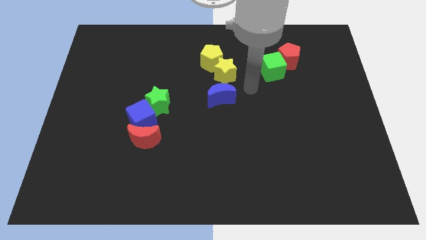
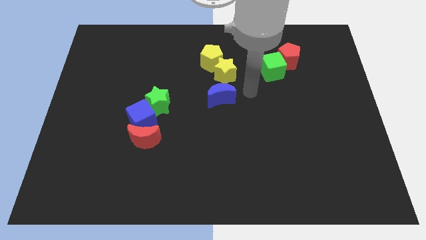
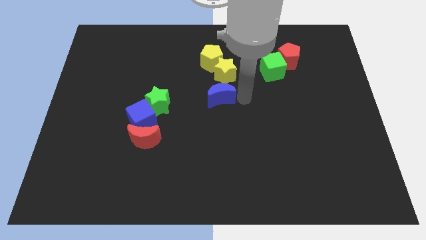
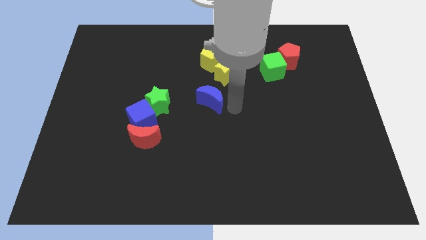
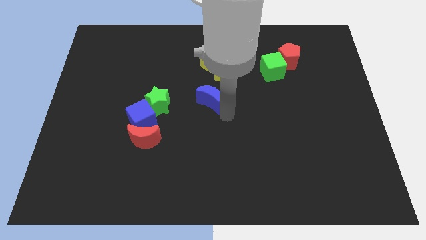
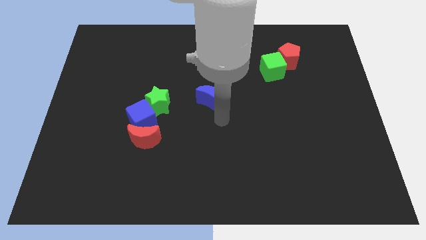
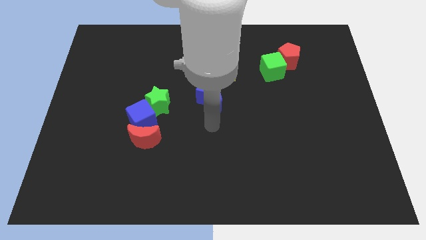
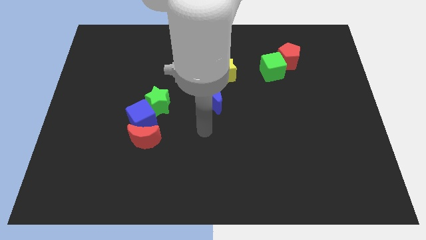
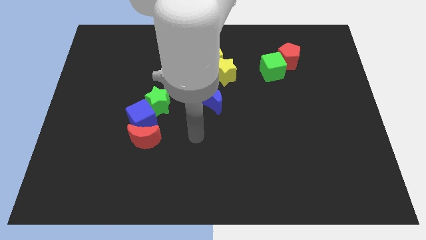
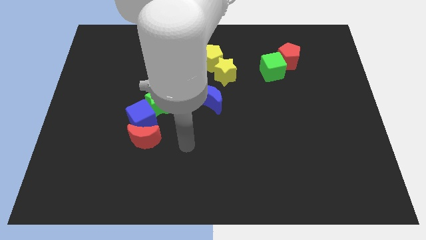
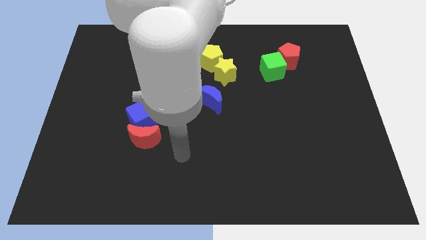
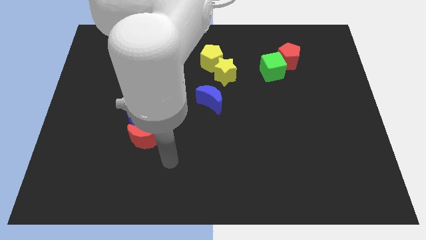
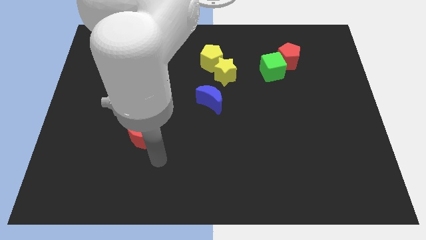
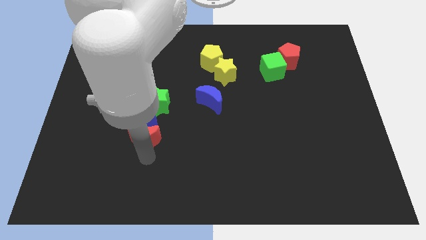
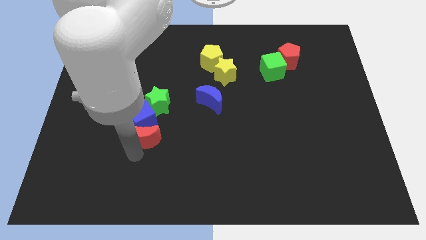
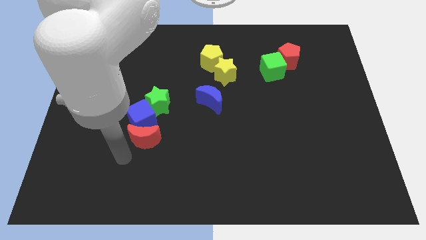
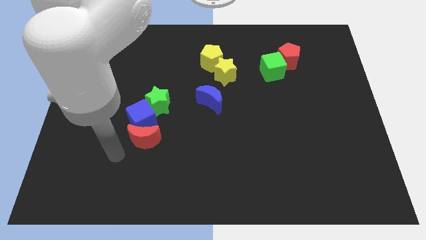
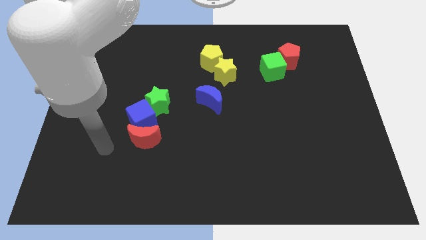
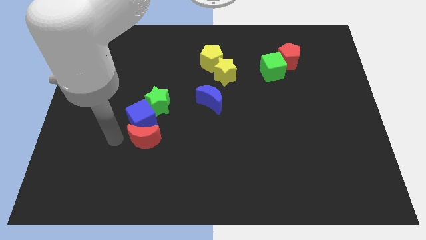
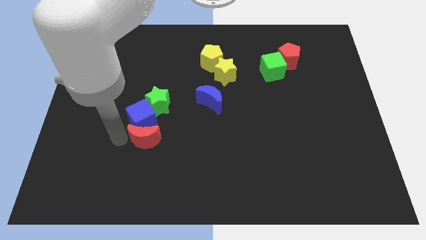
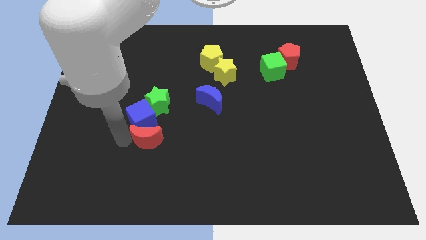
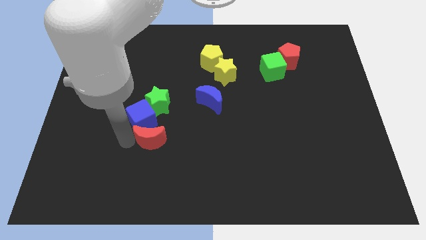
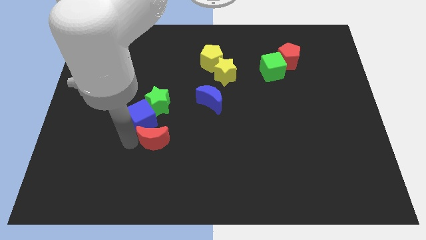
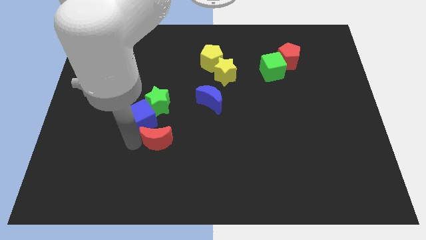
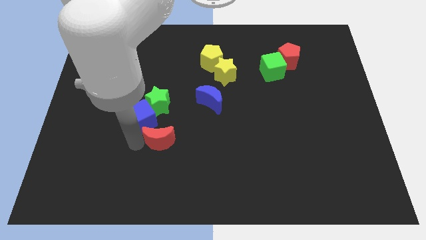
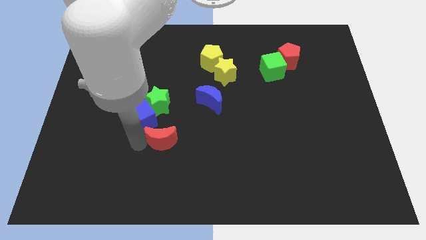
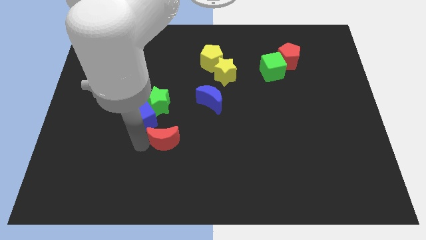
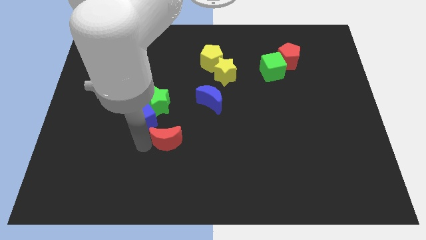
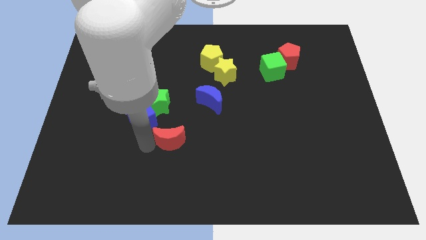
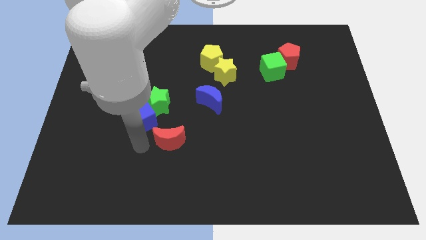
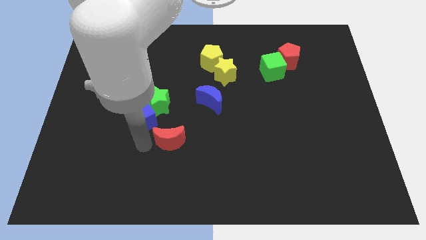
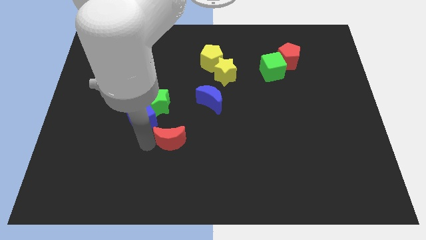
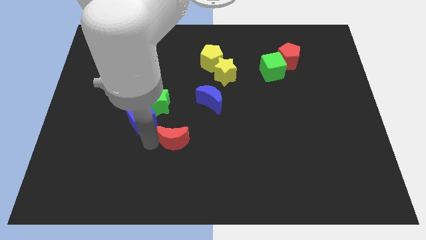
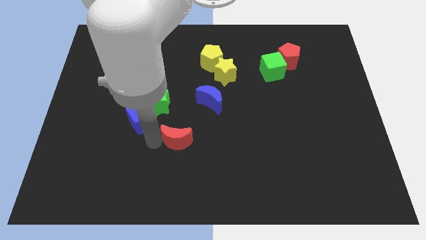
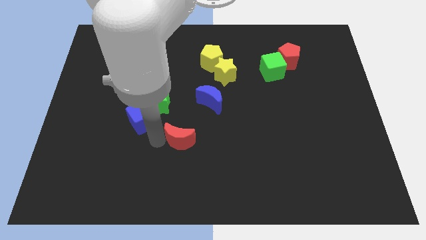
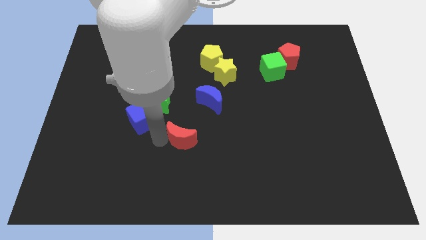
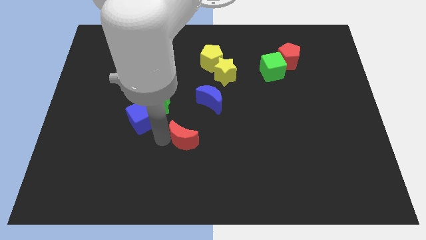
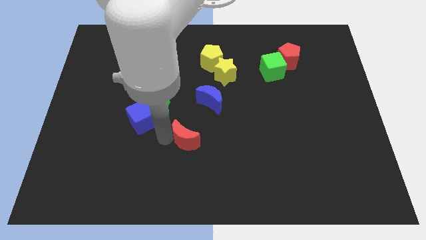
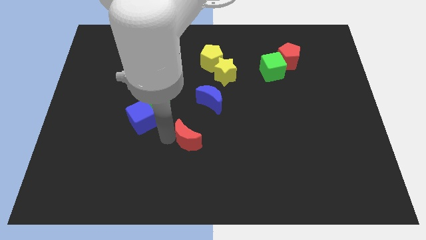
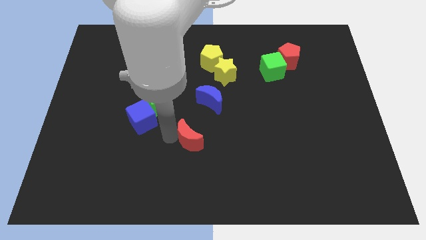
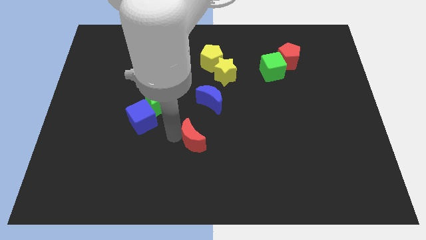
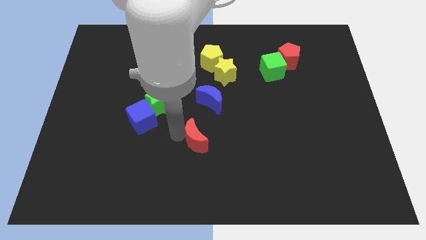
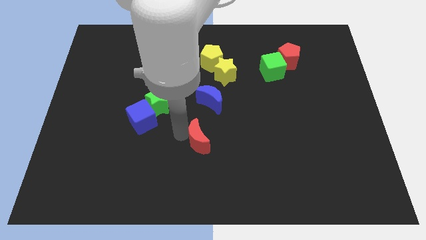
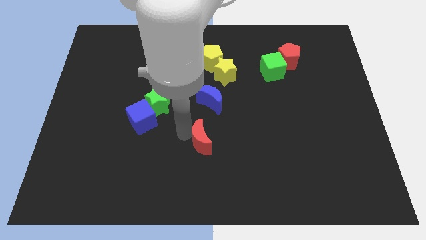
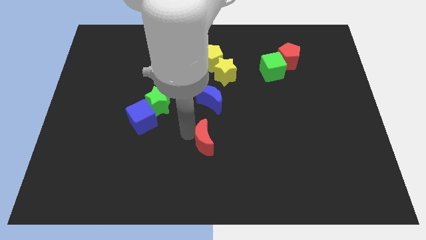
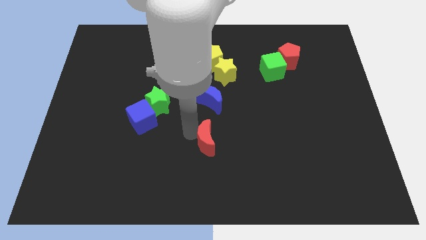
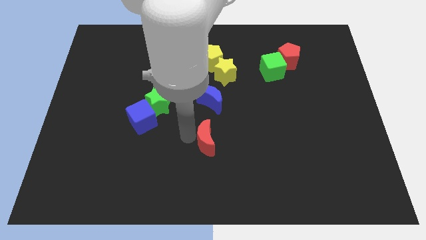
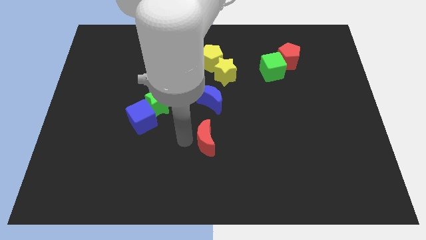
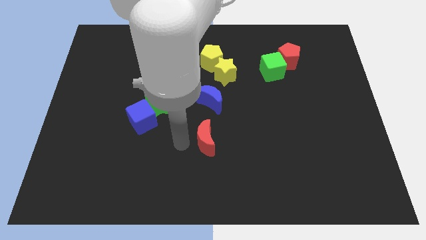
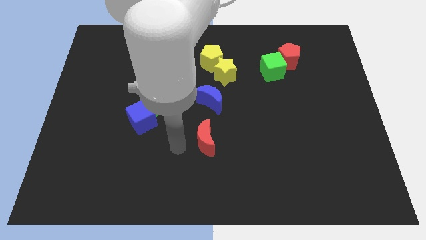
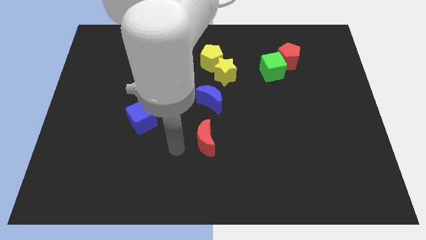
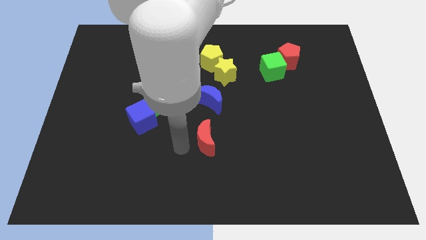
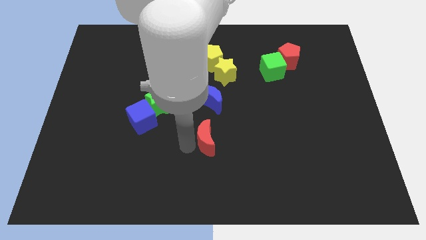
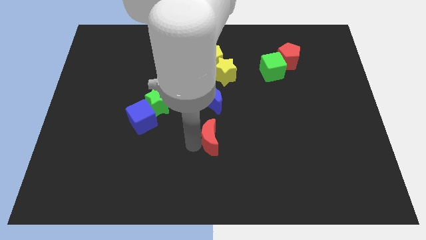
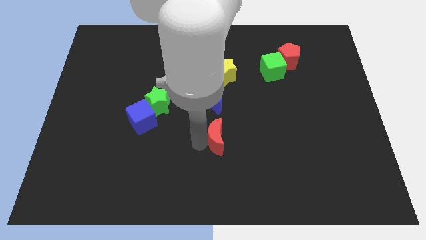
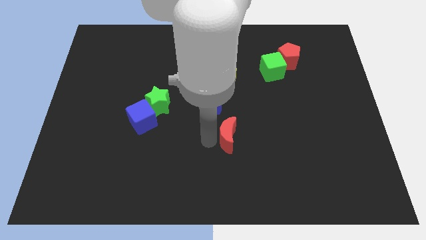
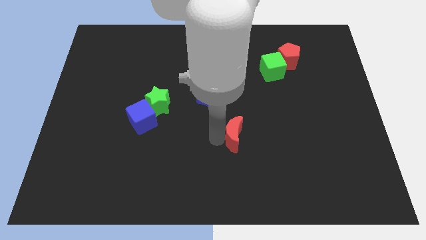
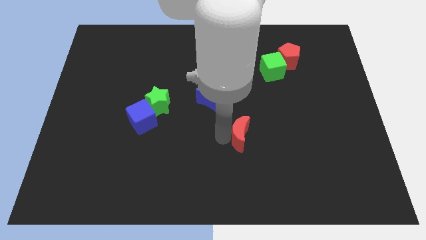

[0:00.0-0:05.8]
move the red moon right

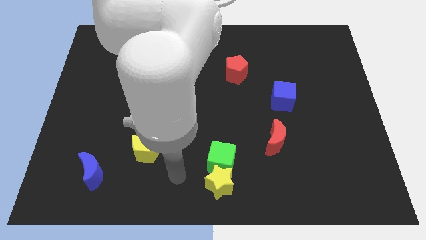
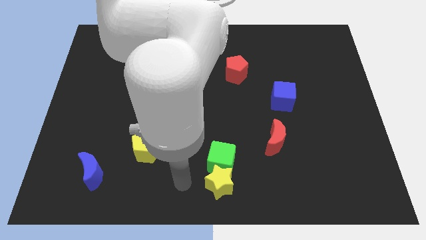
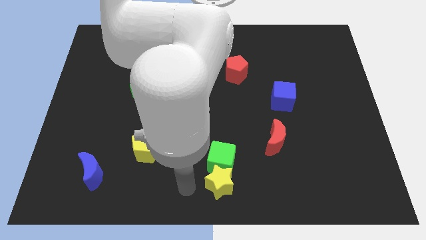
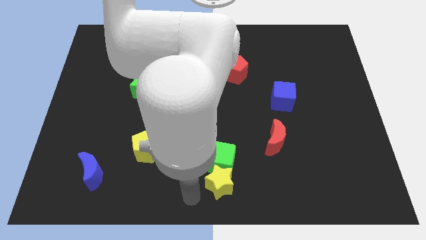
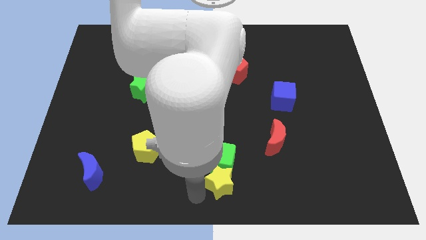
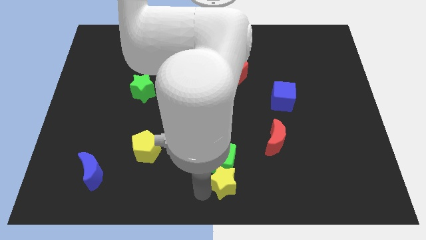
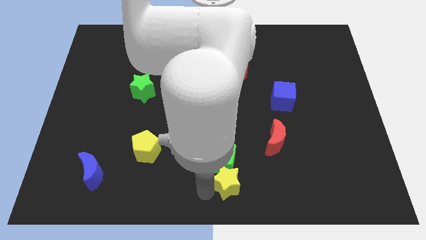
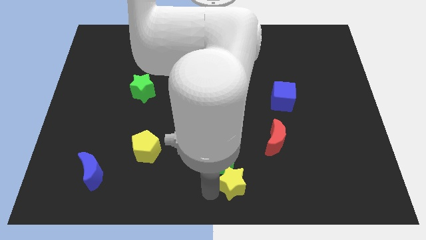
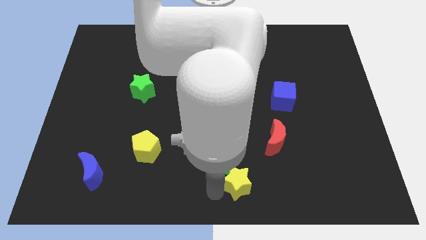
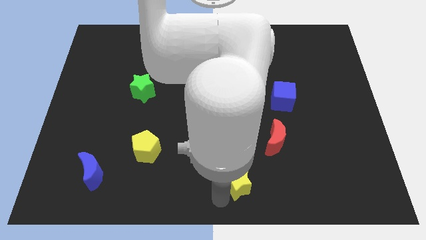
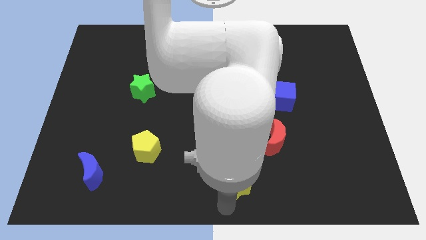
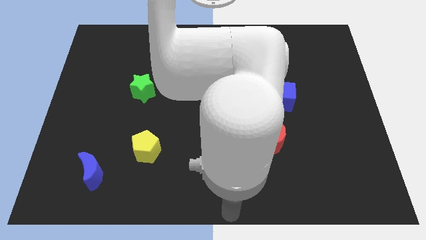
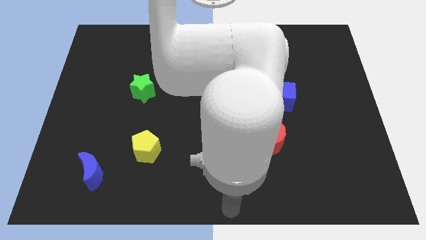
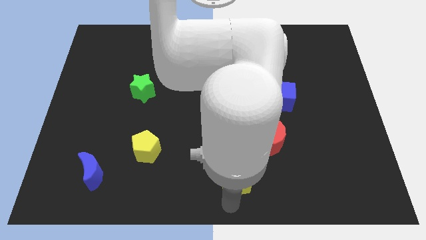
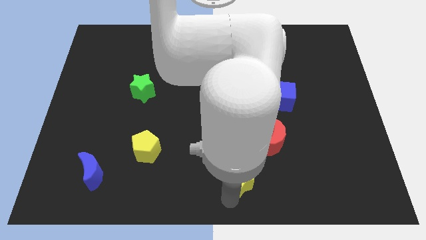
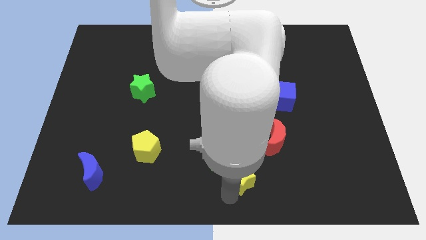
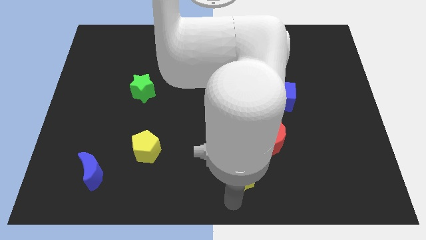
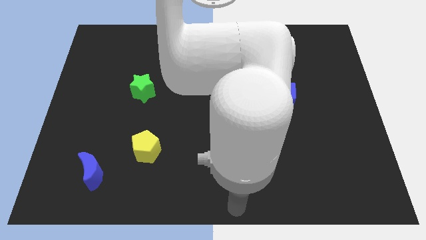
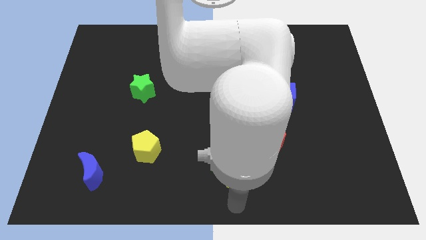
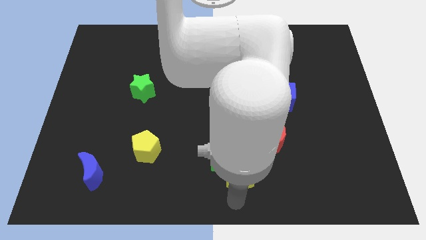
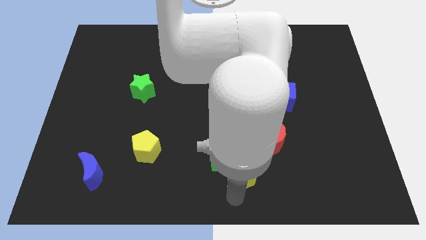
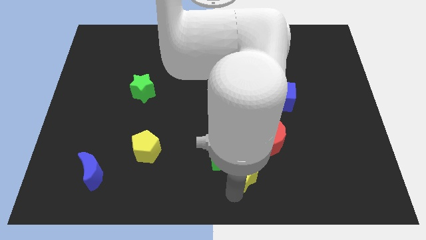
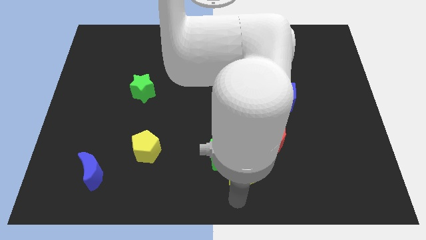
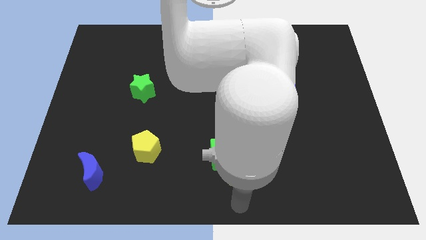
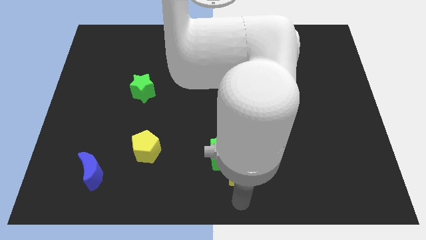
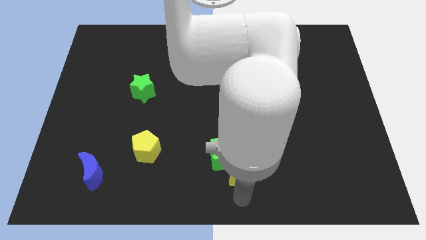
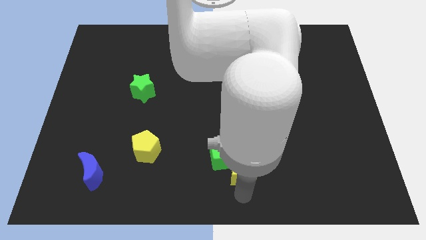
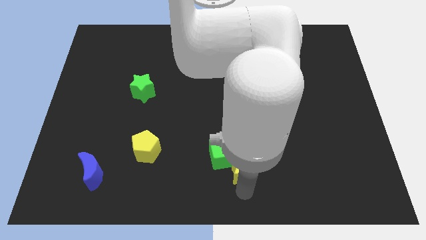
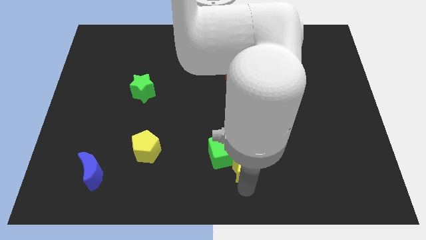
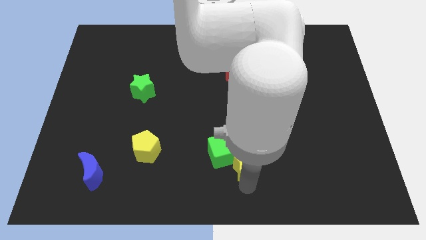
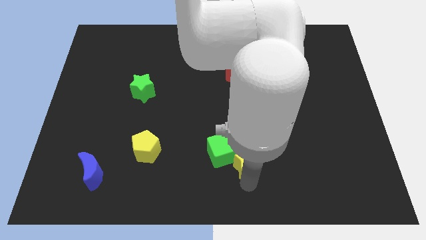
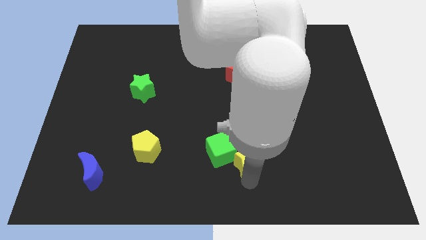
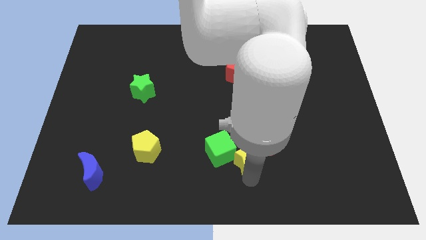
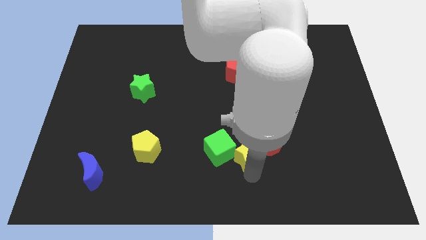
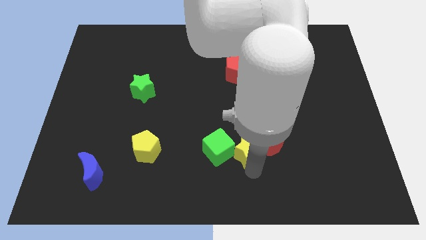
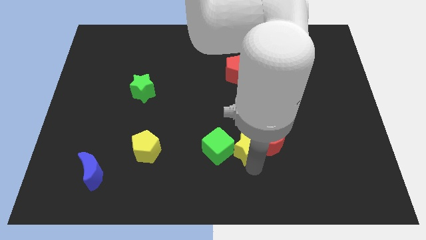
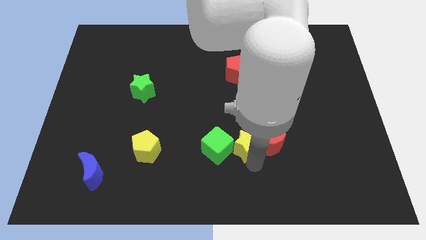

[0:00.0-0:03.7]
slide the yellow star a bit upwards
